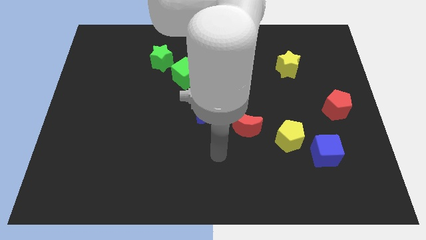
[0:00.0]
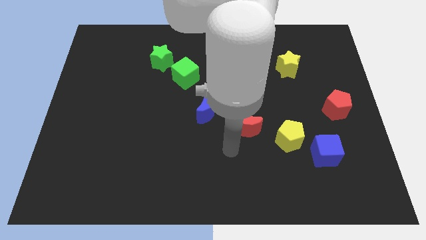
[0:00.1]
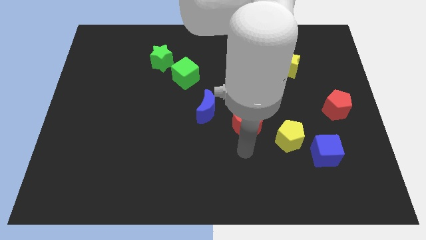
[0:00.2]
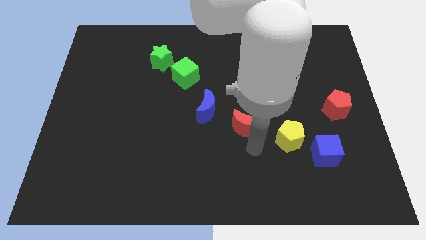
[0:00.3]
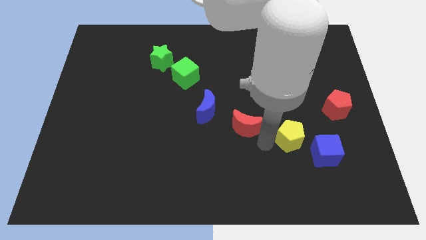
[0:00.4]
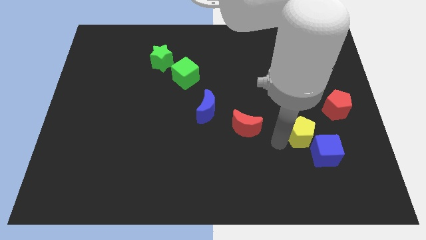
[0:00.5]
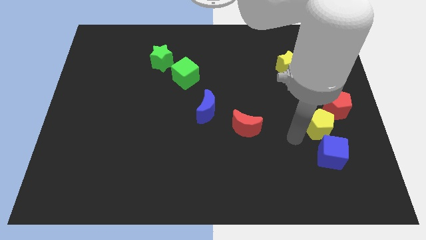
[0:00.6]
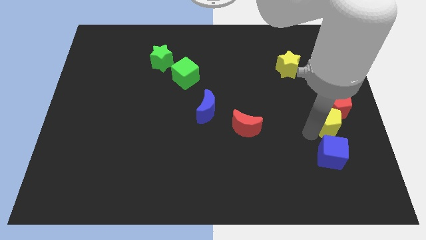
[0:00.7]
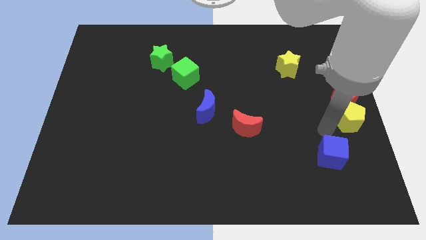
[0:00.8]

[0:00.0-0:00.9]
pull the blue cube apart from the yellow pentagon

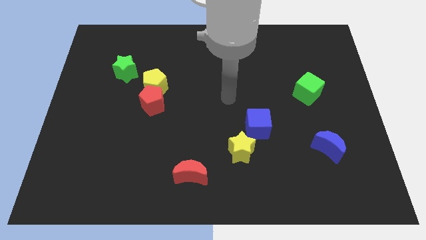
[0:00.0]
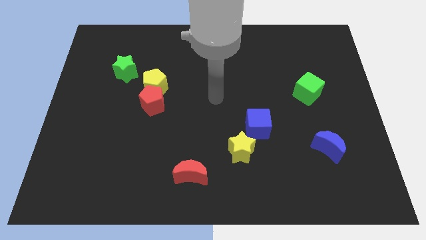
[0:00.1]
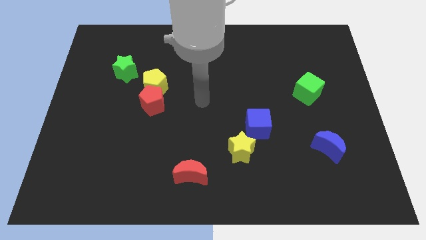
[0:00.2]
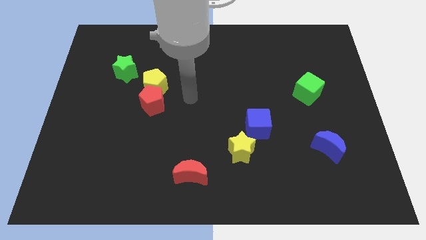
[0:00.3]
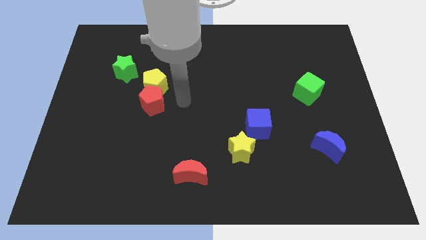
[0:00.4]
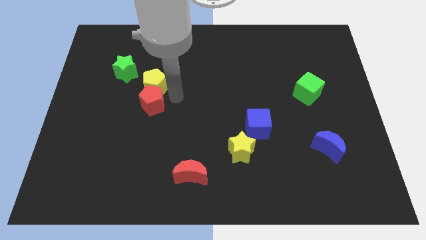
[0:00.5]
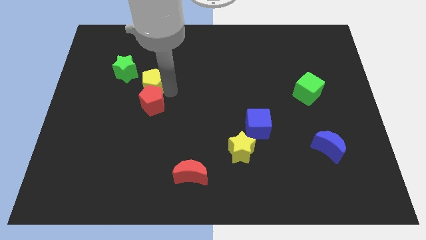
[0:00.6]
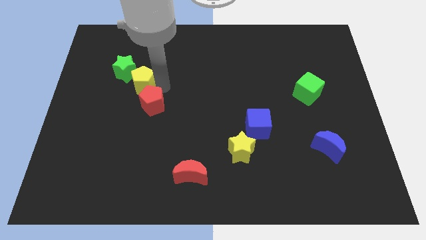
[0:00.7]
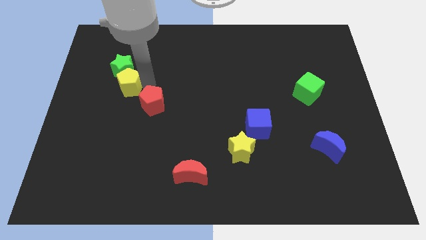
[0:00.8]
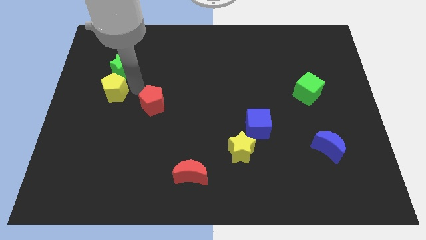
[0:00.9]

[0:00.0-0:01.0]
separate the red pentagon from the yellow pentagon

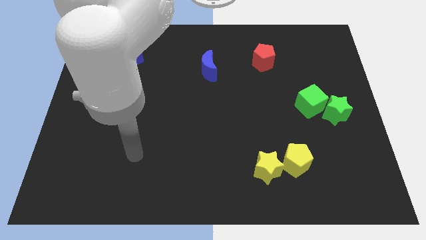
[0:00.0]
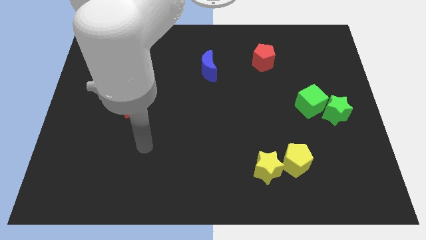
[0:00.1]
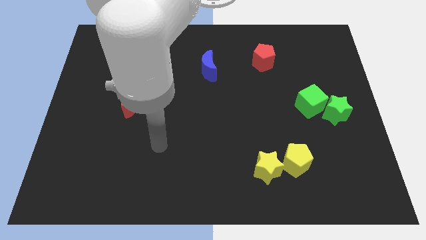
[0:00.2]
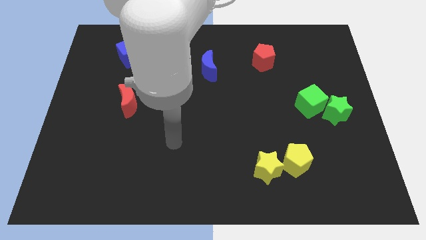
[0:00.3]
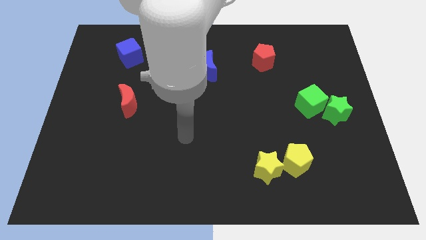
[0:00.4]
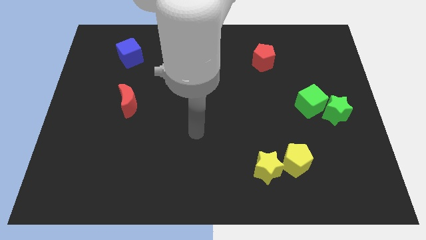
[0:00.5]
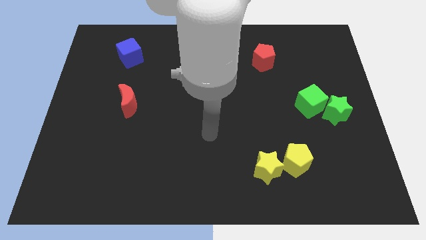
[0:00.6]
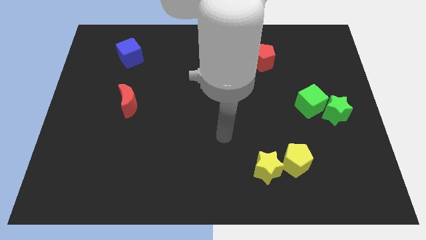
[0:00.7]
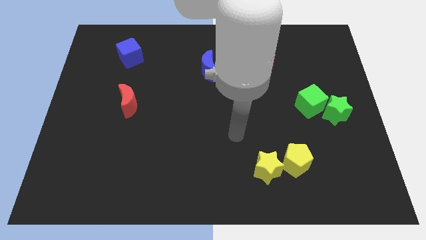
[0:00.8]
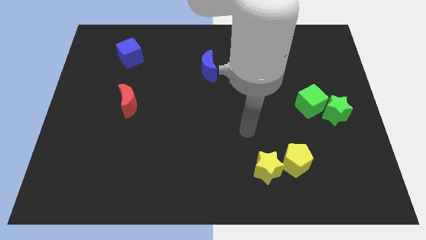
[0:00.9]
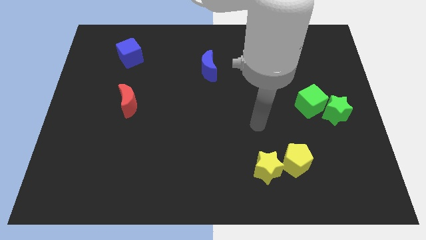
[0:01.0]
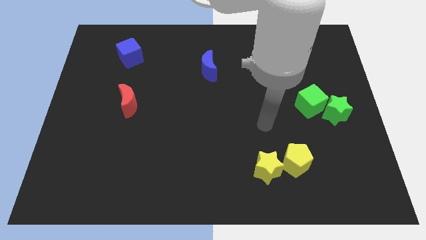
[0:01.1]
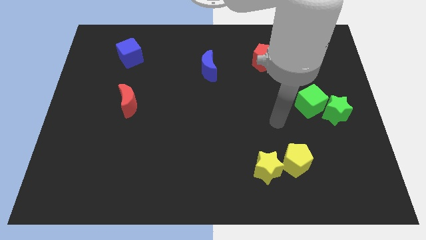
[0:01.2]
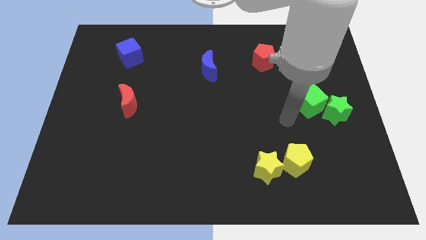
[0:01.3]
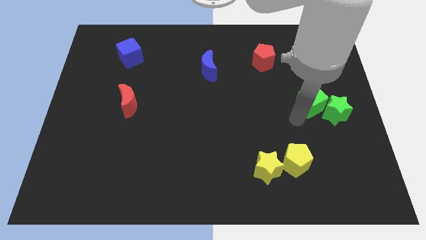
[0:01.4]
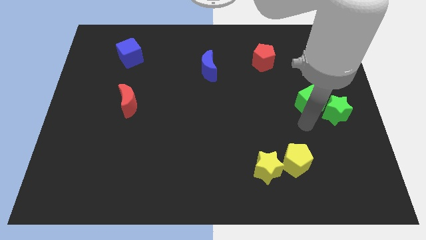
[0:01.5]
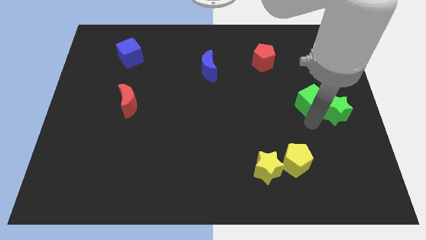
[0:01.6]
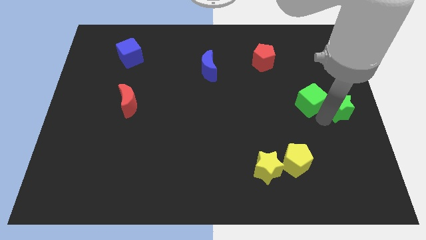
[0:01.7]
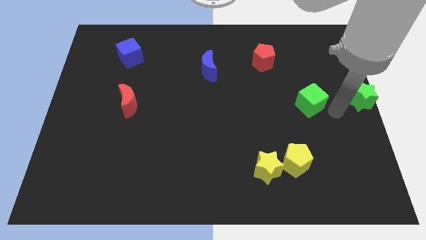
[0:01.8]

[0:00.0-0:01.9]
separate the green cube from the green star

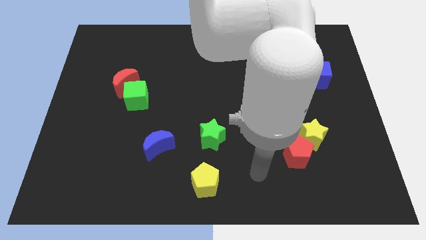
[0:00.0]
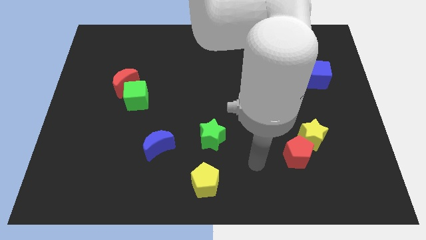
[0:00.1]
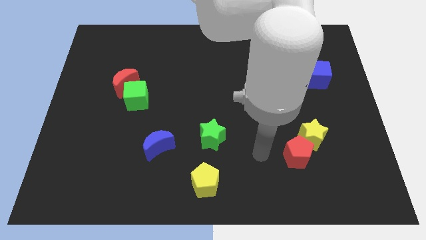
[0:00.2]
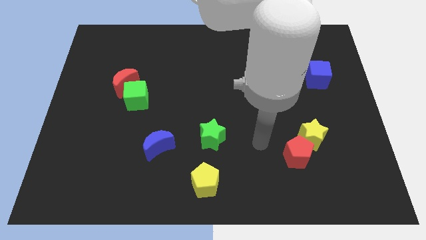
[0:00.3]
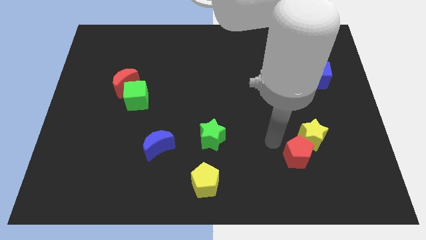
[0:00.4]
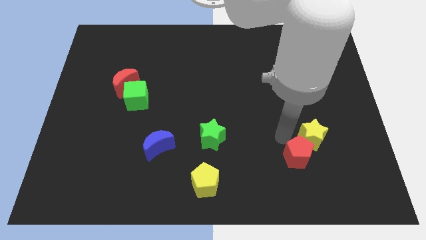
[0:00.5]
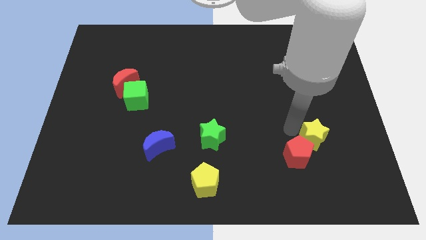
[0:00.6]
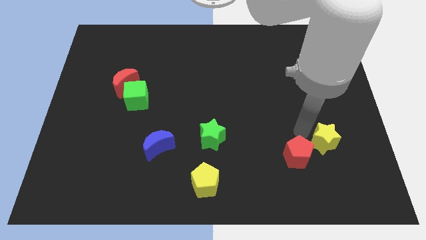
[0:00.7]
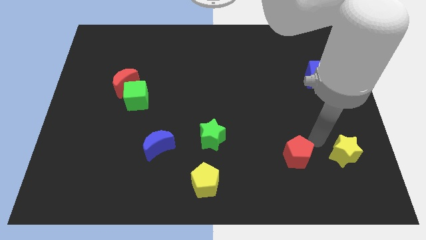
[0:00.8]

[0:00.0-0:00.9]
separate the red pentagon from the yellow star

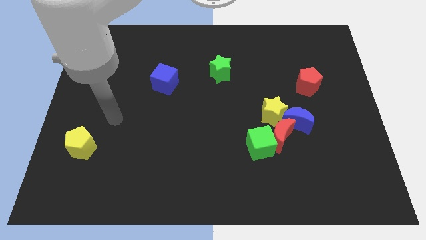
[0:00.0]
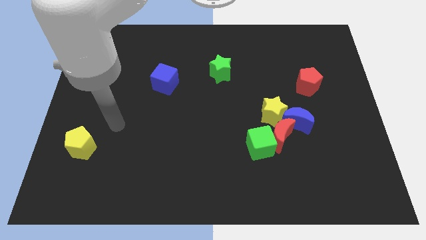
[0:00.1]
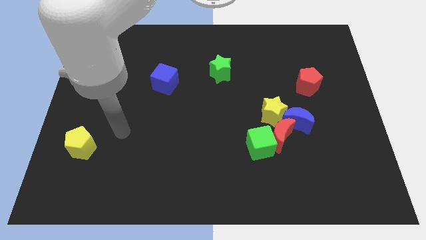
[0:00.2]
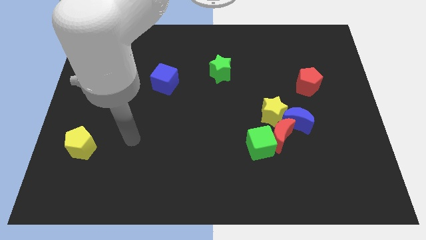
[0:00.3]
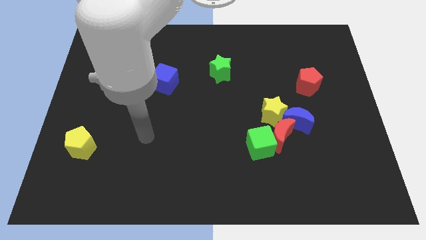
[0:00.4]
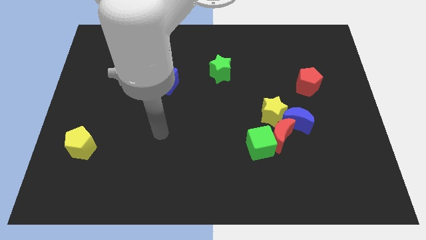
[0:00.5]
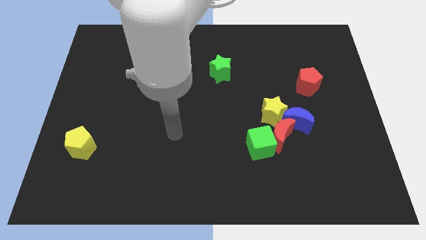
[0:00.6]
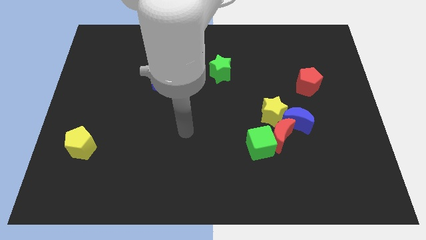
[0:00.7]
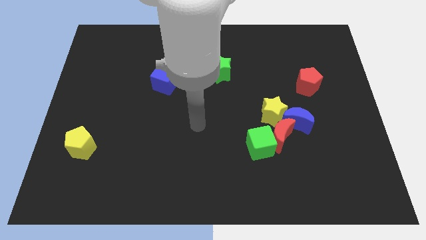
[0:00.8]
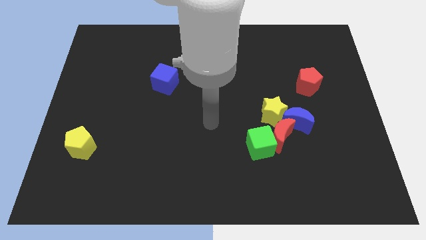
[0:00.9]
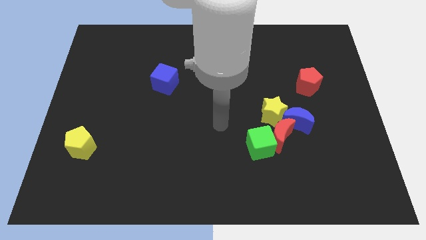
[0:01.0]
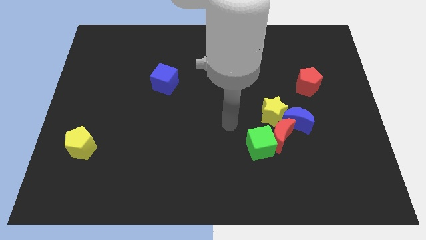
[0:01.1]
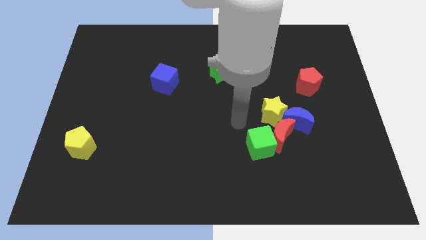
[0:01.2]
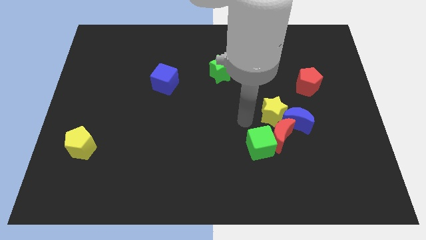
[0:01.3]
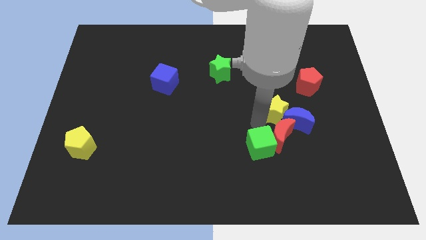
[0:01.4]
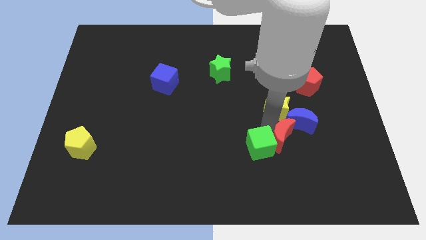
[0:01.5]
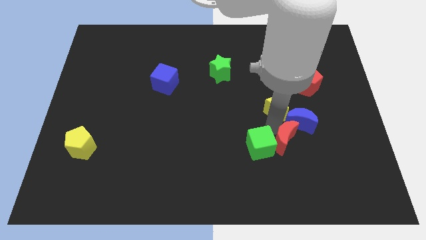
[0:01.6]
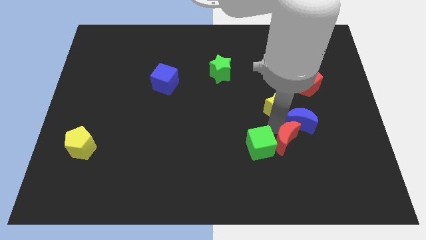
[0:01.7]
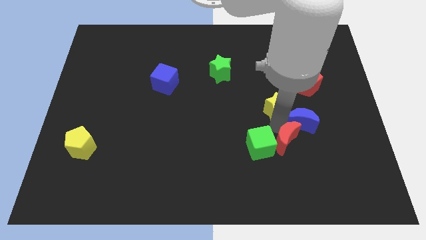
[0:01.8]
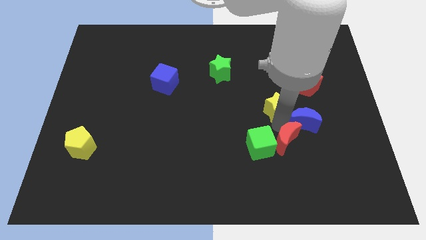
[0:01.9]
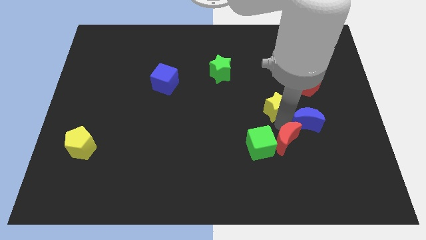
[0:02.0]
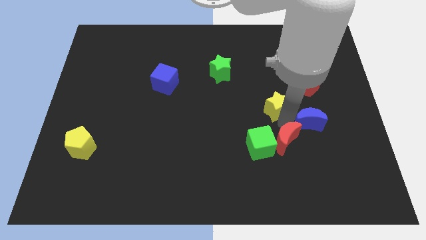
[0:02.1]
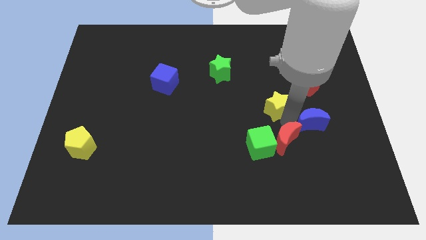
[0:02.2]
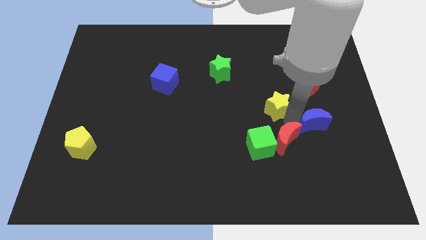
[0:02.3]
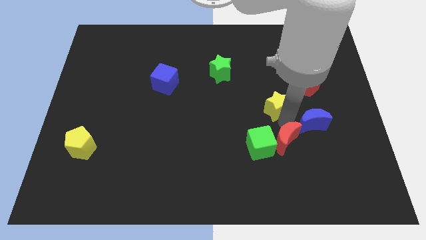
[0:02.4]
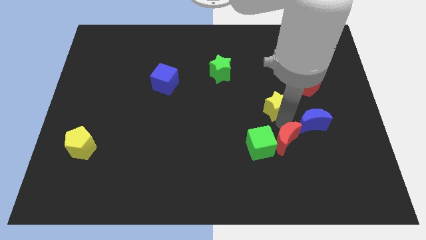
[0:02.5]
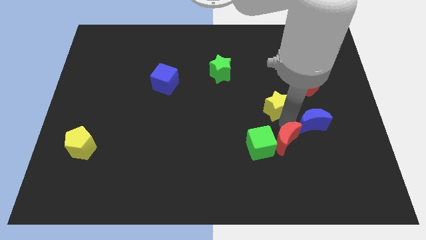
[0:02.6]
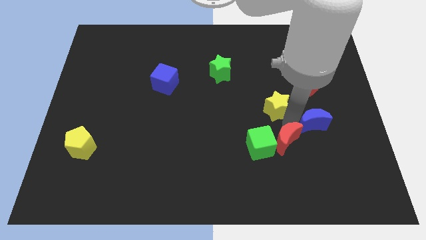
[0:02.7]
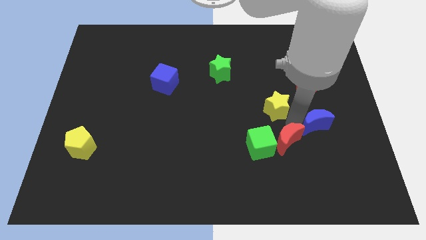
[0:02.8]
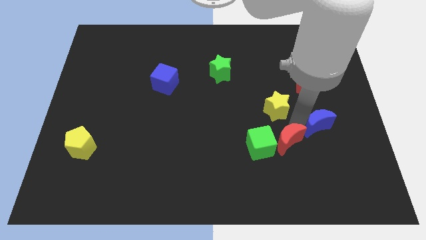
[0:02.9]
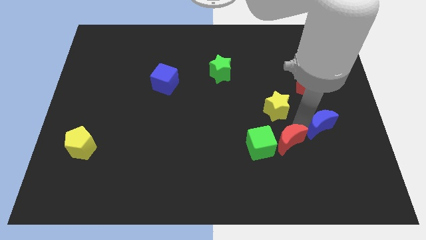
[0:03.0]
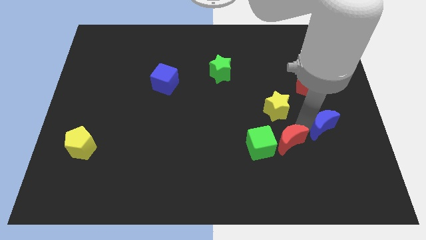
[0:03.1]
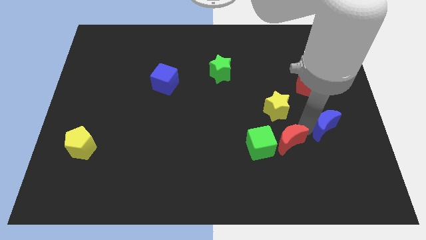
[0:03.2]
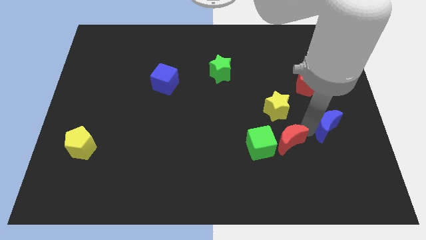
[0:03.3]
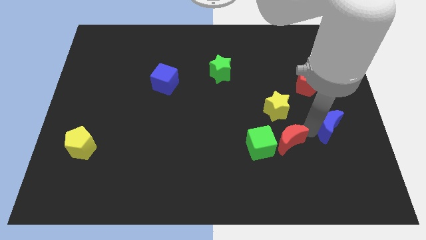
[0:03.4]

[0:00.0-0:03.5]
pull the blue moon apart from the red moon and yellow star

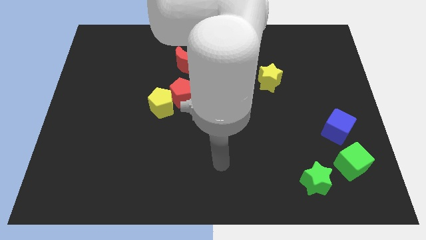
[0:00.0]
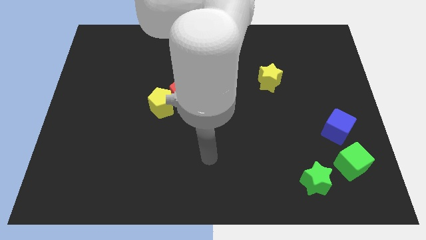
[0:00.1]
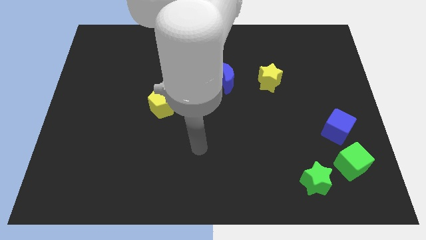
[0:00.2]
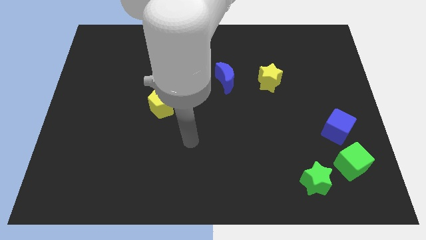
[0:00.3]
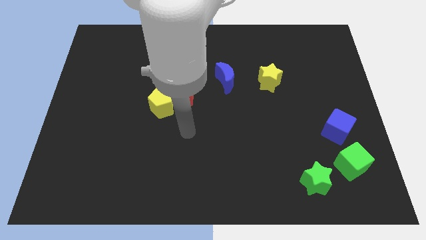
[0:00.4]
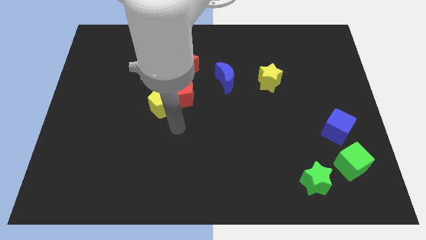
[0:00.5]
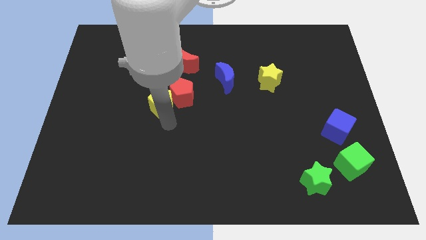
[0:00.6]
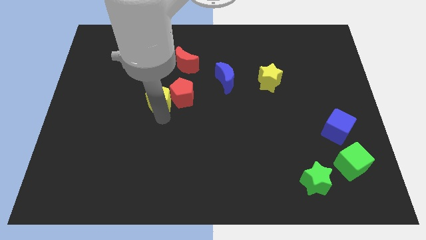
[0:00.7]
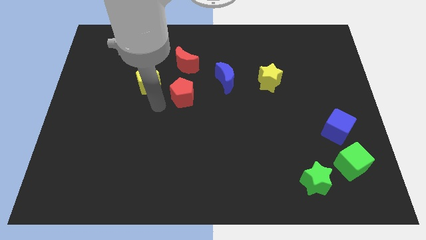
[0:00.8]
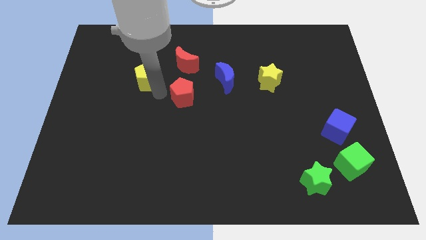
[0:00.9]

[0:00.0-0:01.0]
pull the red pentagon apart from the yellow pentagon

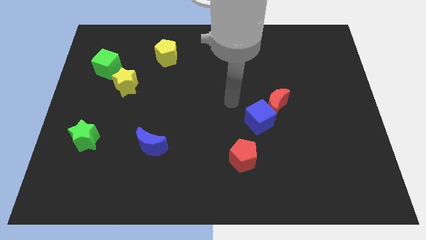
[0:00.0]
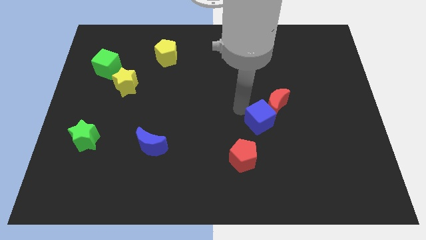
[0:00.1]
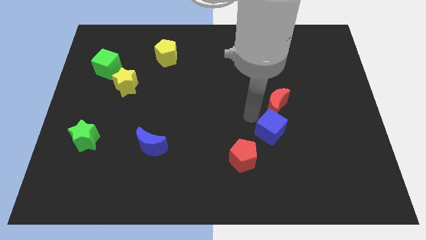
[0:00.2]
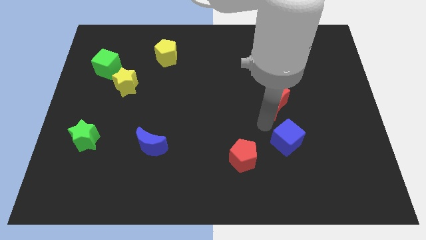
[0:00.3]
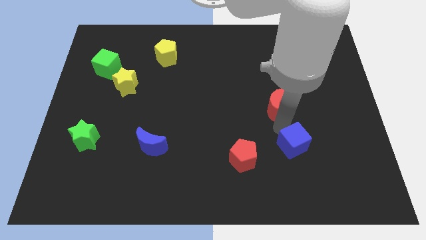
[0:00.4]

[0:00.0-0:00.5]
pull the red moon apart from the blue cube
